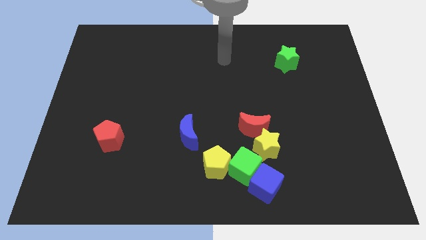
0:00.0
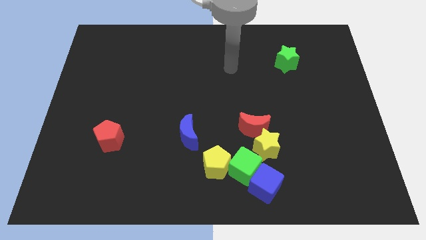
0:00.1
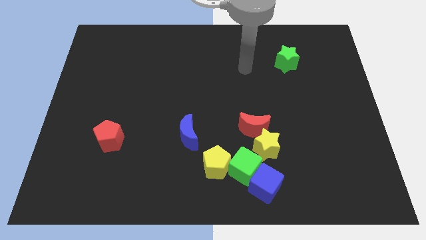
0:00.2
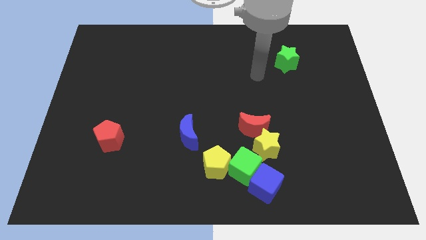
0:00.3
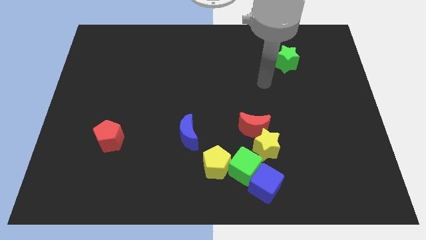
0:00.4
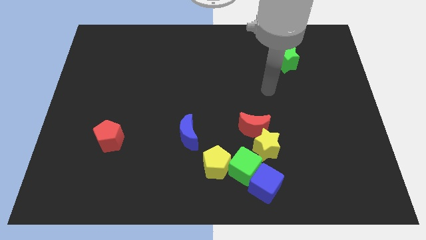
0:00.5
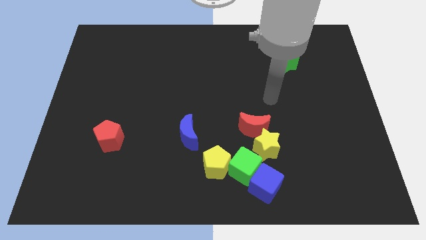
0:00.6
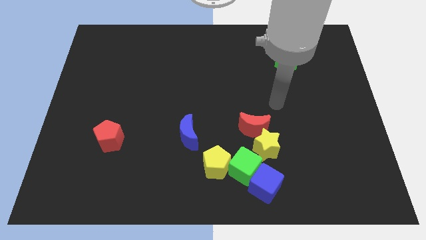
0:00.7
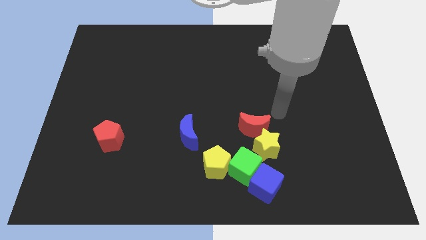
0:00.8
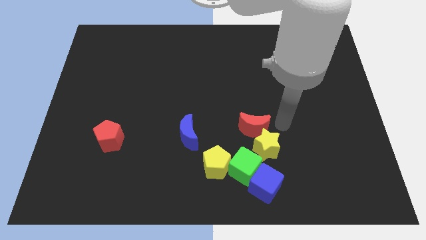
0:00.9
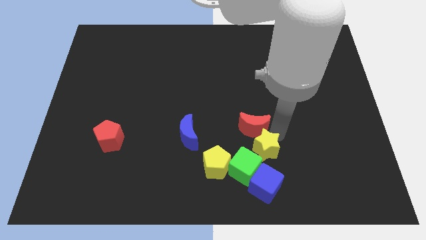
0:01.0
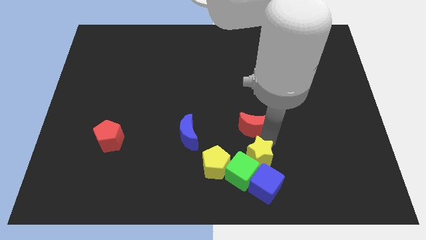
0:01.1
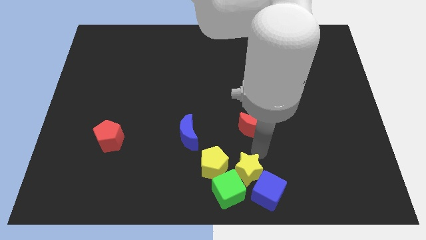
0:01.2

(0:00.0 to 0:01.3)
separate the red moon from the yellow star

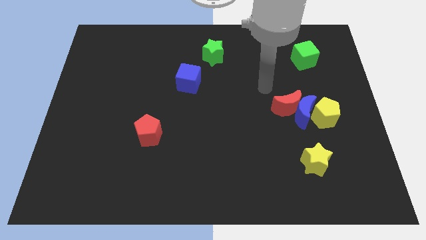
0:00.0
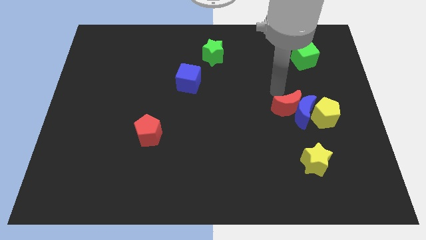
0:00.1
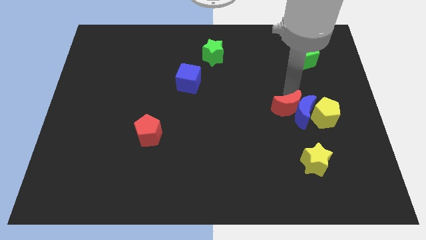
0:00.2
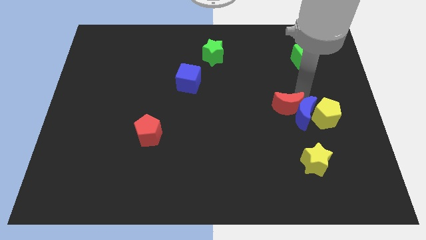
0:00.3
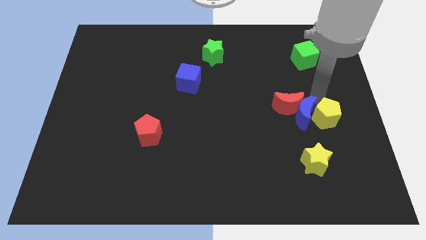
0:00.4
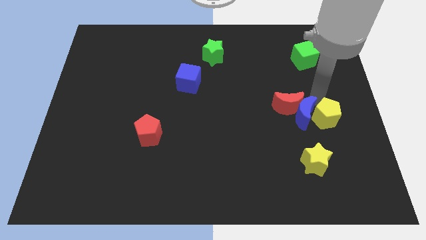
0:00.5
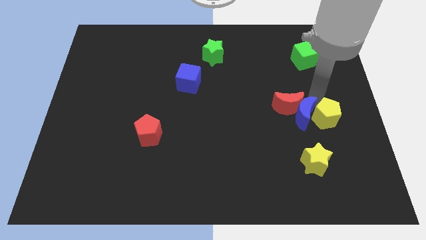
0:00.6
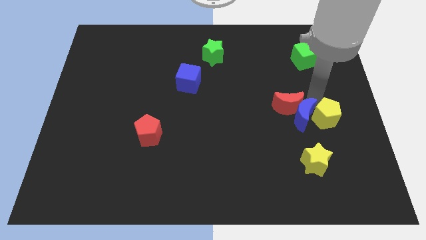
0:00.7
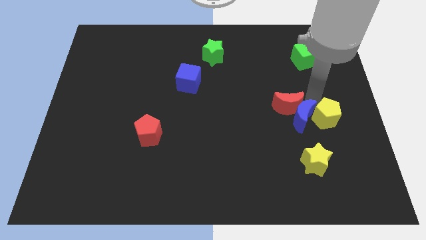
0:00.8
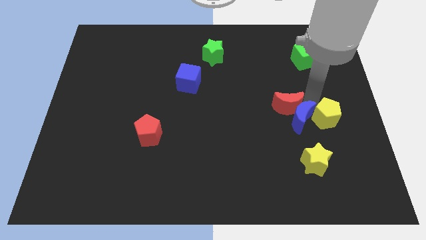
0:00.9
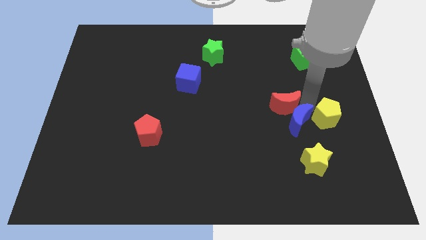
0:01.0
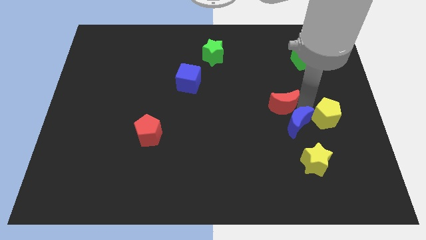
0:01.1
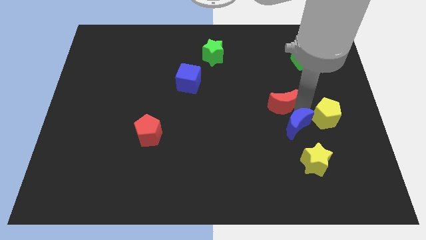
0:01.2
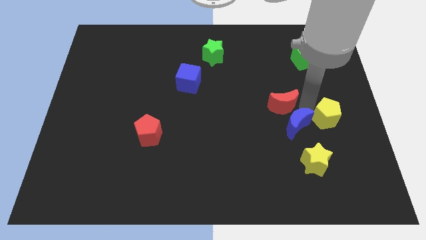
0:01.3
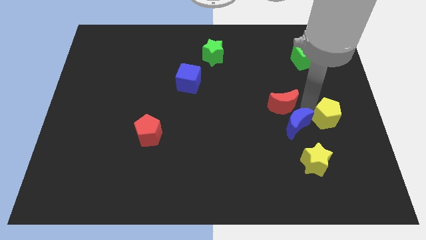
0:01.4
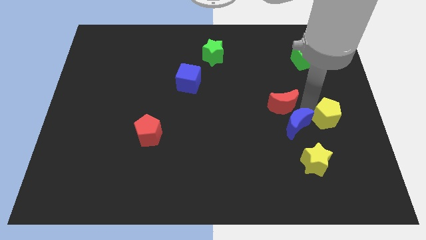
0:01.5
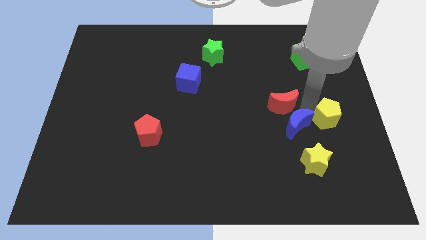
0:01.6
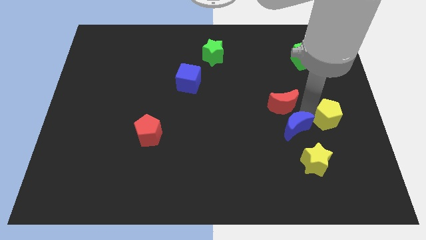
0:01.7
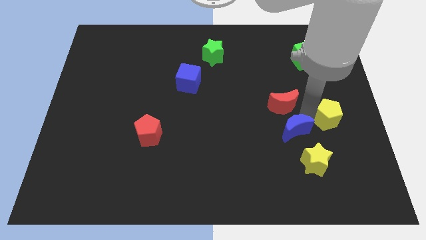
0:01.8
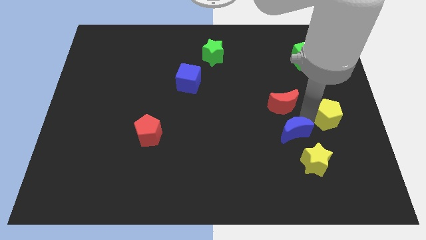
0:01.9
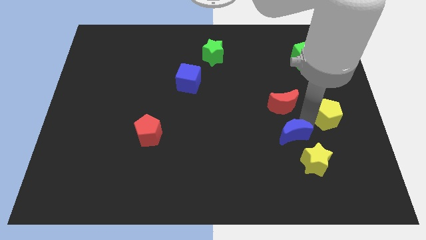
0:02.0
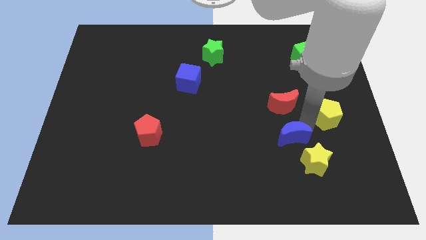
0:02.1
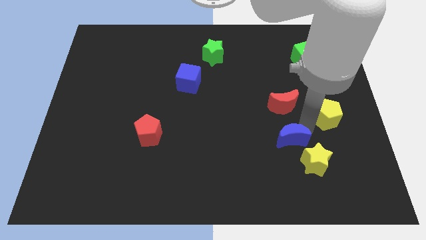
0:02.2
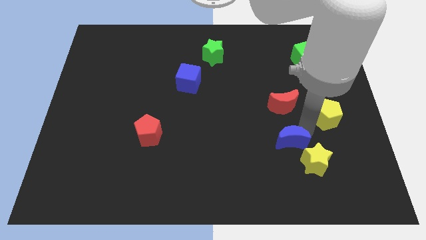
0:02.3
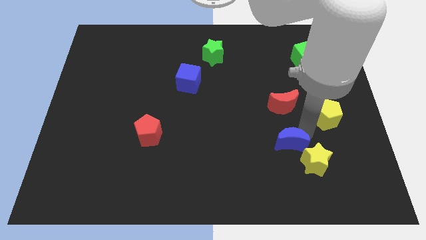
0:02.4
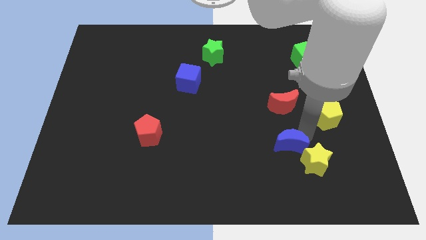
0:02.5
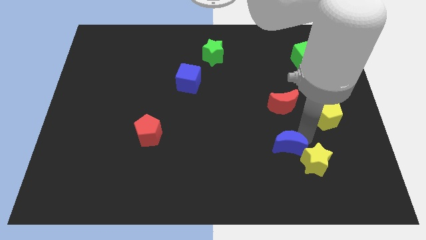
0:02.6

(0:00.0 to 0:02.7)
pull the blue moon apart from the red moon and yellow pentagon

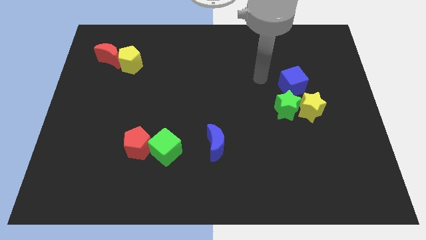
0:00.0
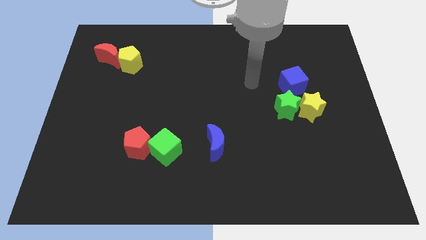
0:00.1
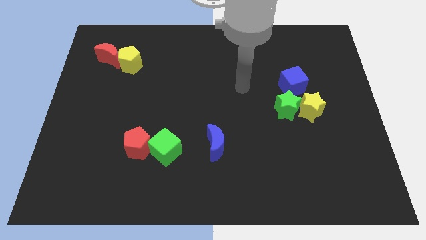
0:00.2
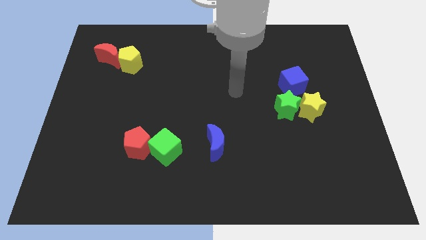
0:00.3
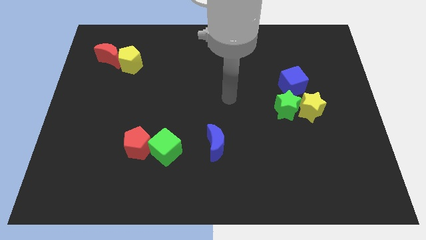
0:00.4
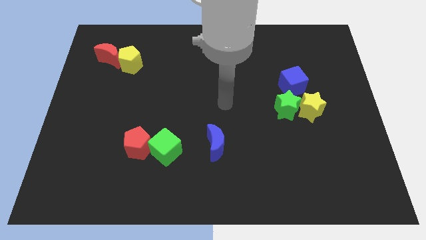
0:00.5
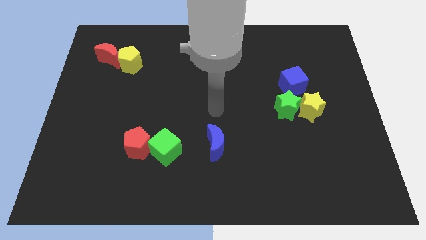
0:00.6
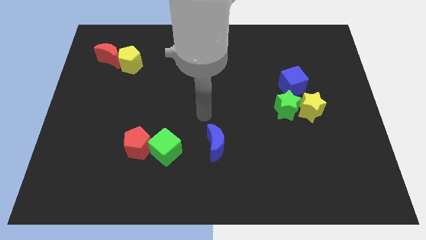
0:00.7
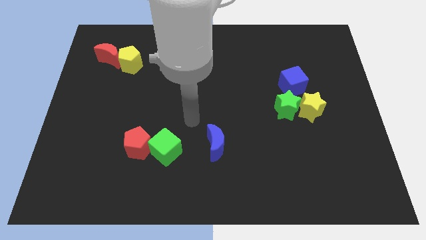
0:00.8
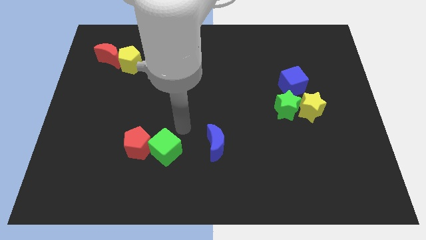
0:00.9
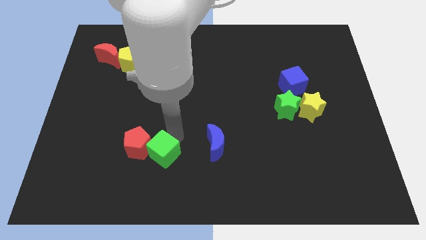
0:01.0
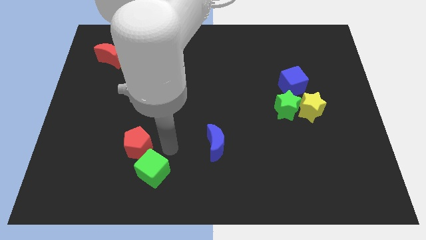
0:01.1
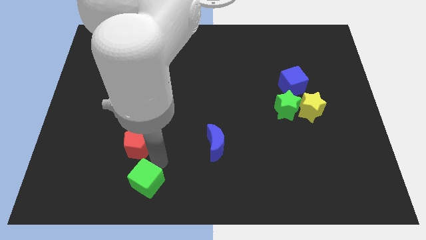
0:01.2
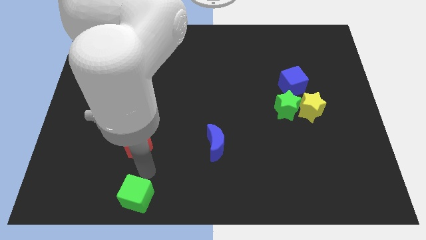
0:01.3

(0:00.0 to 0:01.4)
separate the red pentagon from the green cube

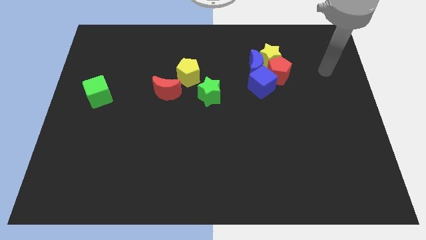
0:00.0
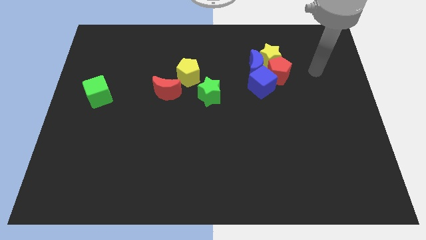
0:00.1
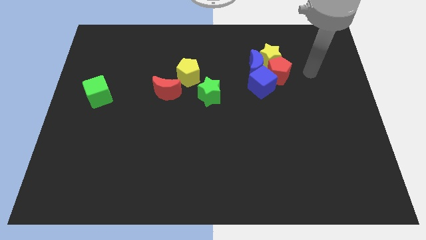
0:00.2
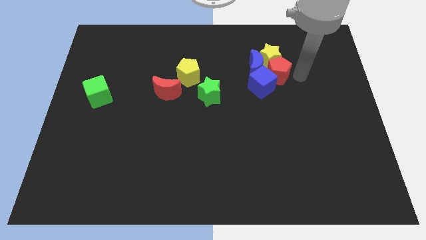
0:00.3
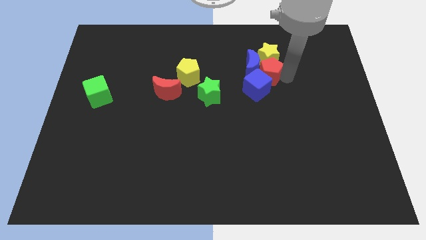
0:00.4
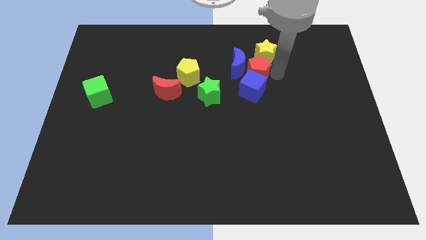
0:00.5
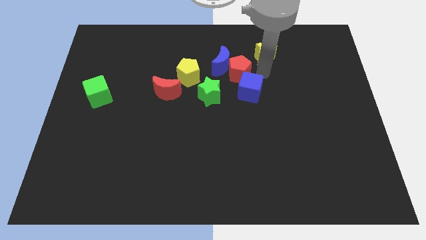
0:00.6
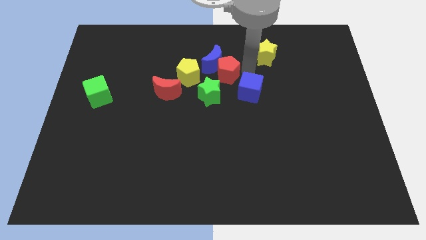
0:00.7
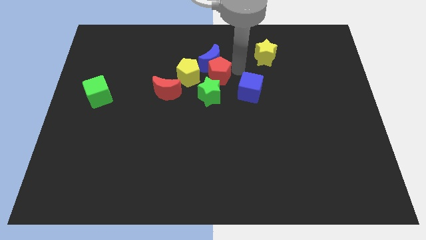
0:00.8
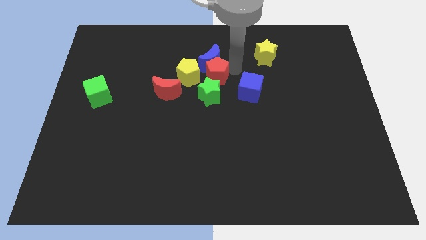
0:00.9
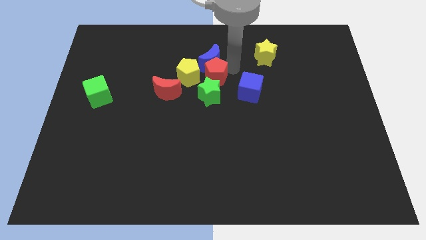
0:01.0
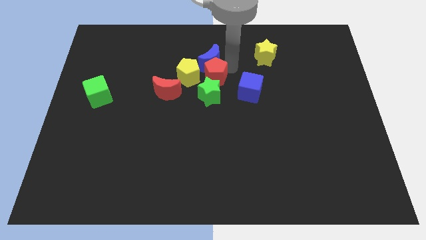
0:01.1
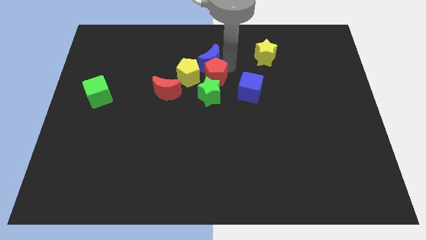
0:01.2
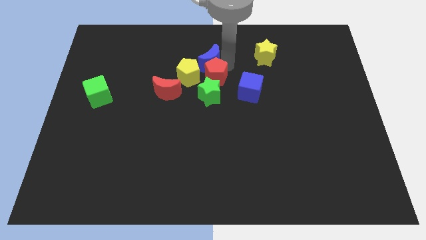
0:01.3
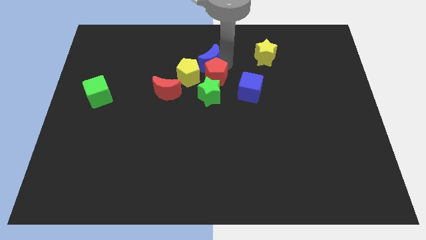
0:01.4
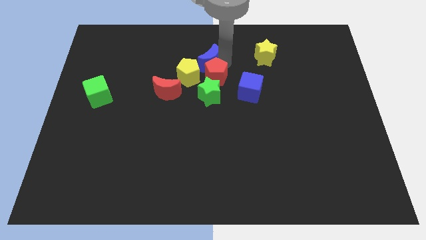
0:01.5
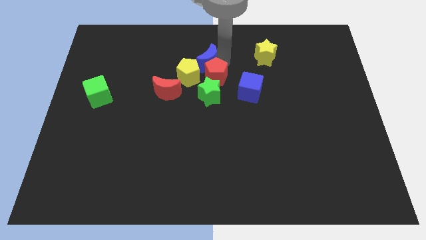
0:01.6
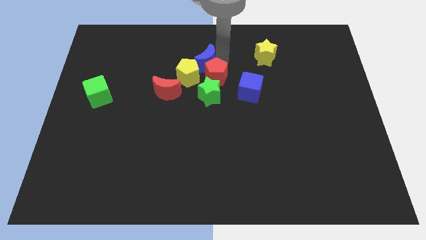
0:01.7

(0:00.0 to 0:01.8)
separate the blue moon from the group of blocks

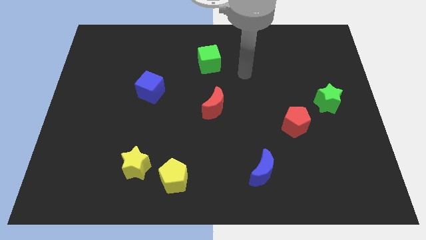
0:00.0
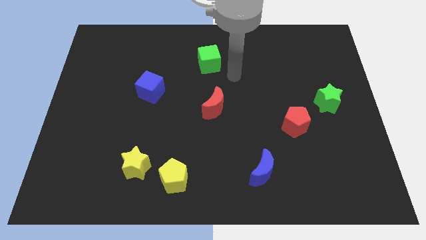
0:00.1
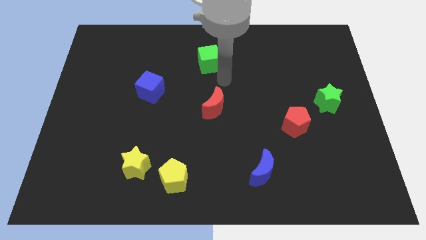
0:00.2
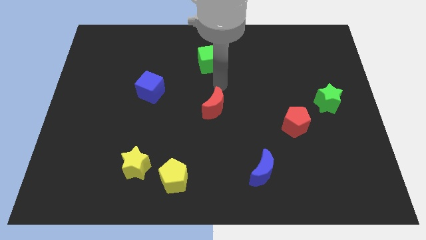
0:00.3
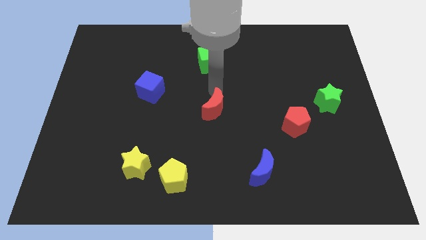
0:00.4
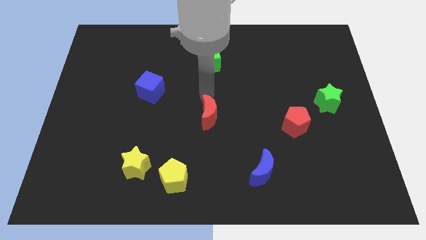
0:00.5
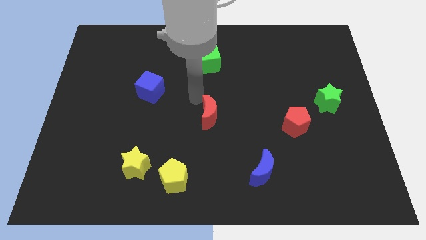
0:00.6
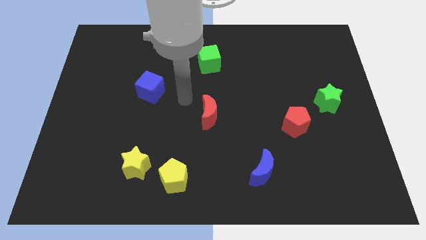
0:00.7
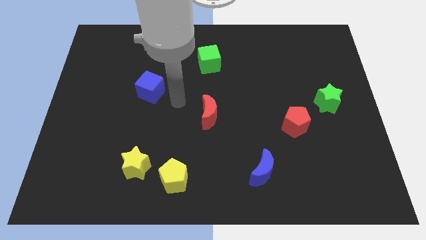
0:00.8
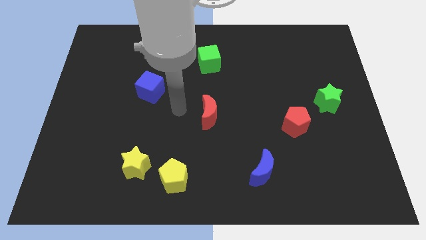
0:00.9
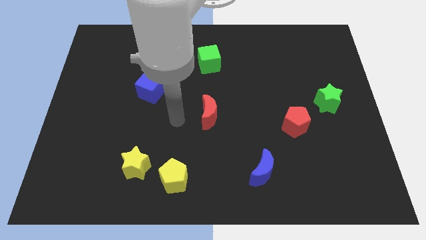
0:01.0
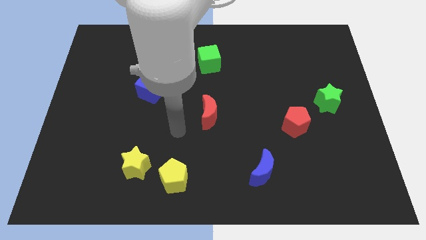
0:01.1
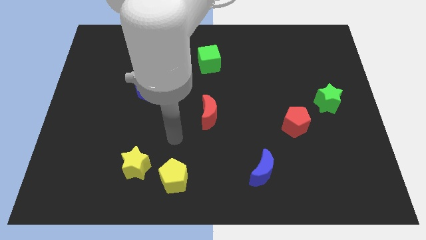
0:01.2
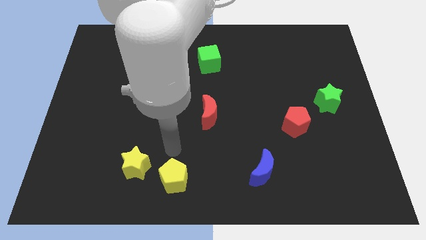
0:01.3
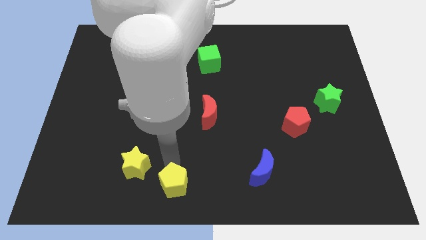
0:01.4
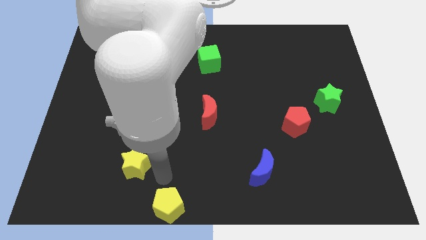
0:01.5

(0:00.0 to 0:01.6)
separate the yellow star from the yellow pentagon

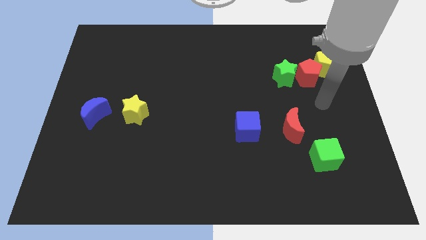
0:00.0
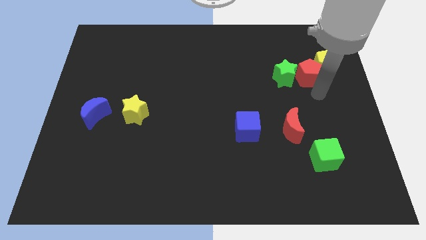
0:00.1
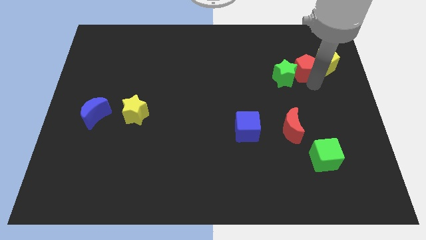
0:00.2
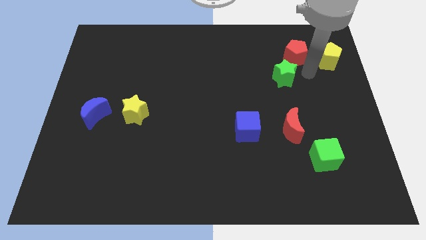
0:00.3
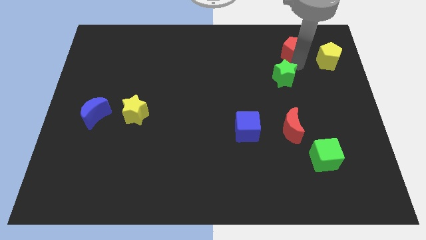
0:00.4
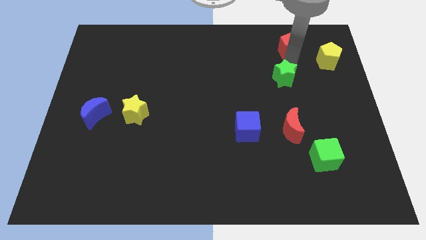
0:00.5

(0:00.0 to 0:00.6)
move the green star away from the red pentagon
